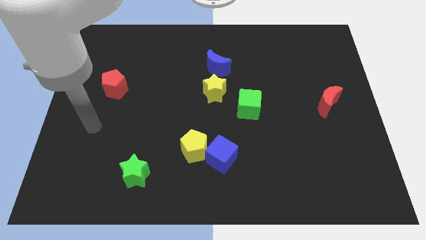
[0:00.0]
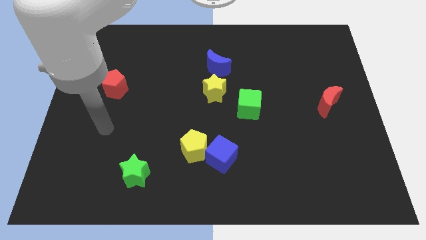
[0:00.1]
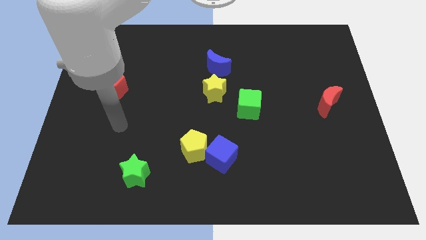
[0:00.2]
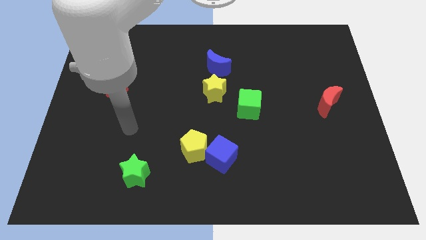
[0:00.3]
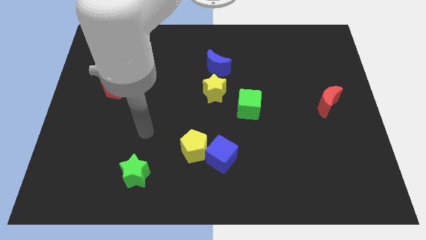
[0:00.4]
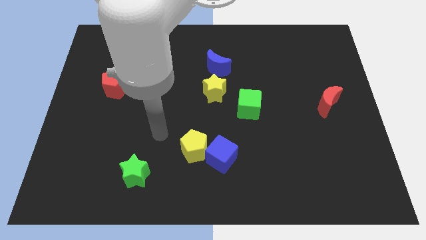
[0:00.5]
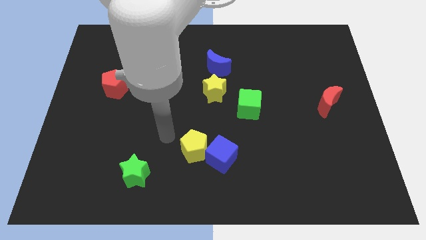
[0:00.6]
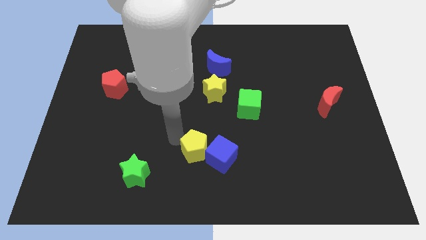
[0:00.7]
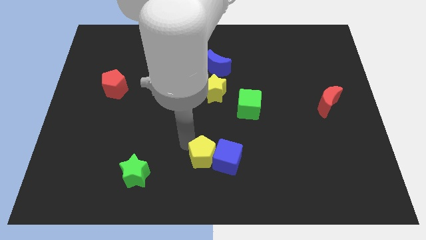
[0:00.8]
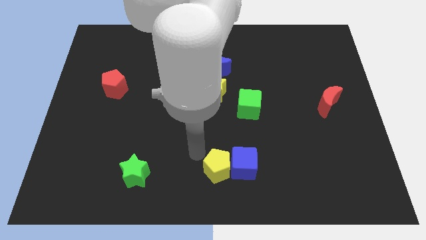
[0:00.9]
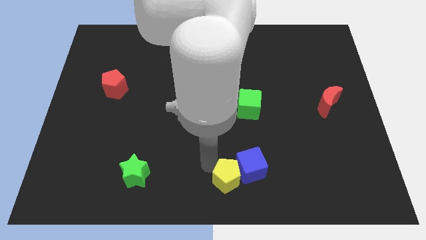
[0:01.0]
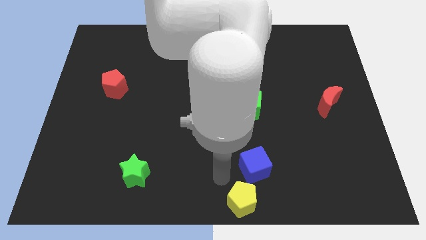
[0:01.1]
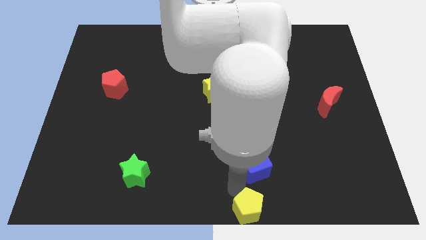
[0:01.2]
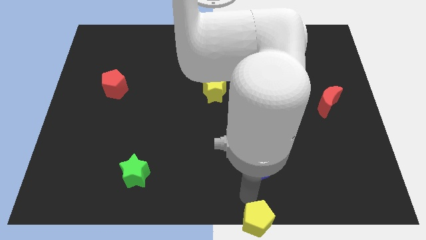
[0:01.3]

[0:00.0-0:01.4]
move the blue cube away from the yellow pentagon

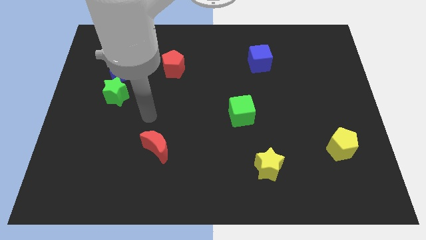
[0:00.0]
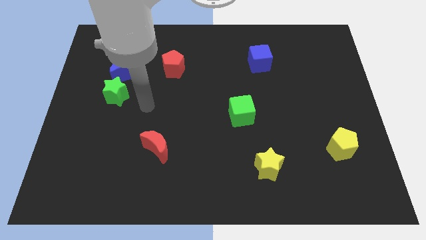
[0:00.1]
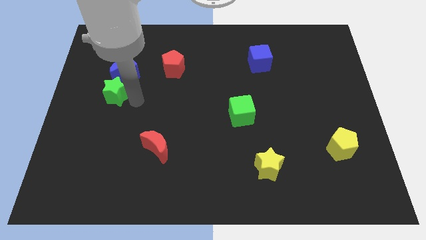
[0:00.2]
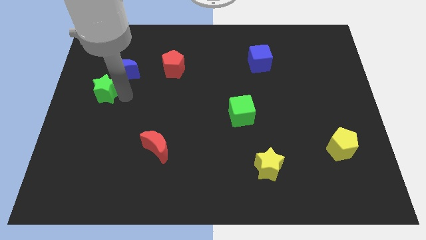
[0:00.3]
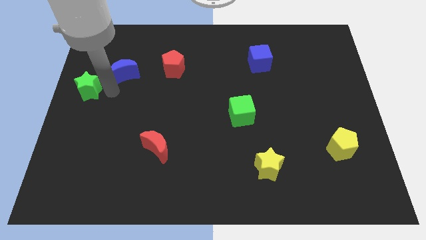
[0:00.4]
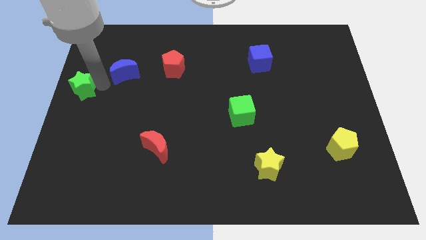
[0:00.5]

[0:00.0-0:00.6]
move the blue moon away from the green star

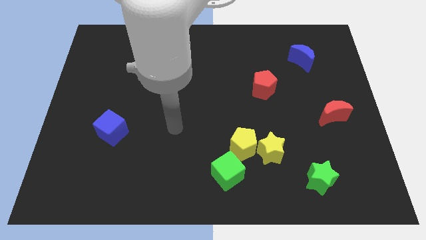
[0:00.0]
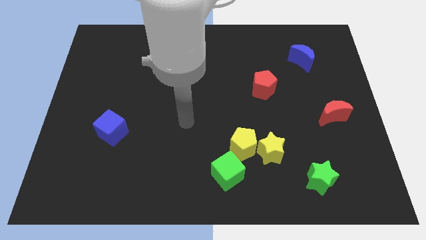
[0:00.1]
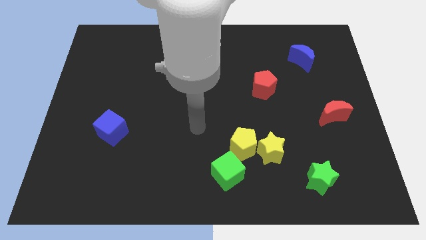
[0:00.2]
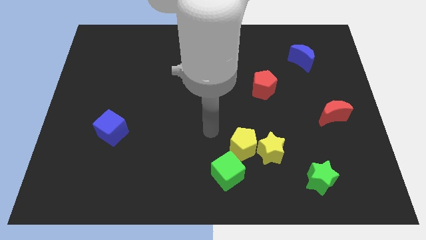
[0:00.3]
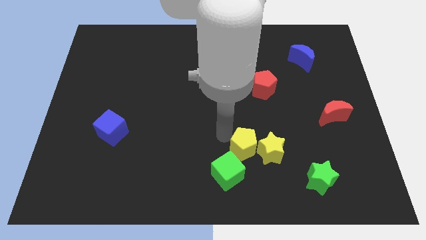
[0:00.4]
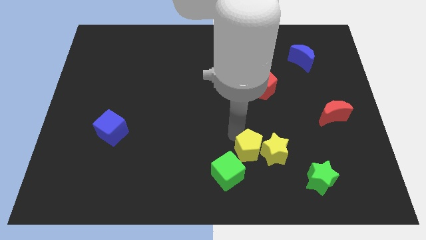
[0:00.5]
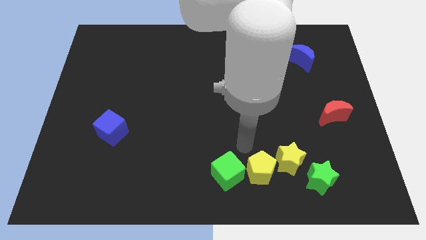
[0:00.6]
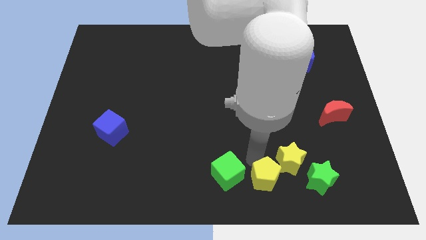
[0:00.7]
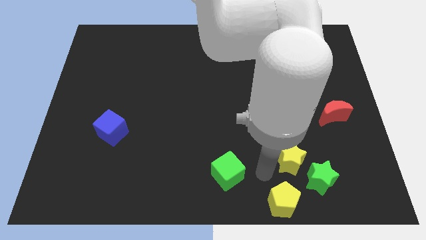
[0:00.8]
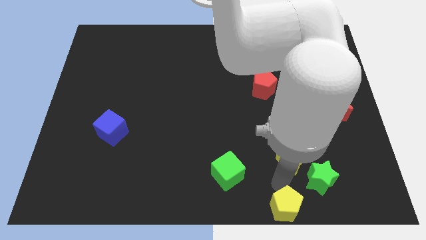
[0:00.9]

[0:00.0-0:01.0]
pull the yellow star apart from the yellow pentagon
